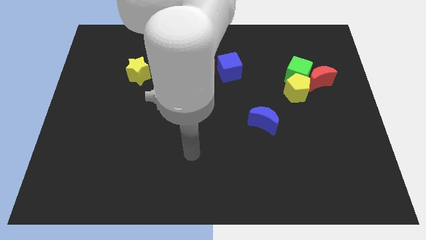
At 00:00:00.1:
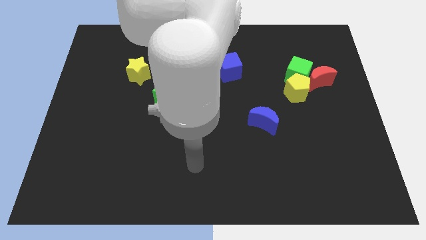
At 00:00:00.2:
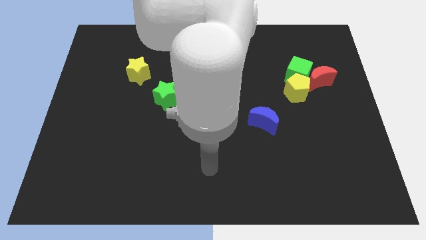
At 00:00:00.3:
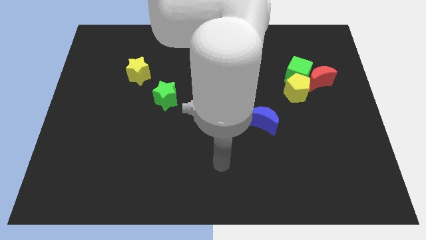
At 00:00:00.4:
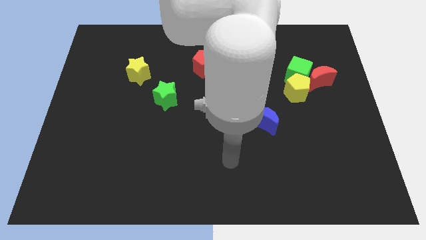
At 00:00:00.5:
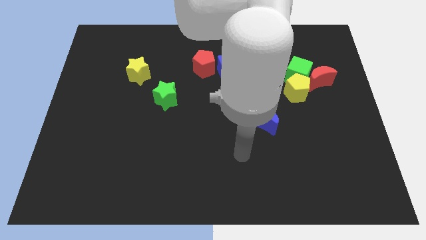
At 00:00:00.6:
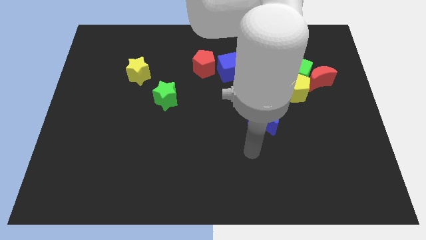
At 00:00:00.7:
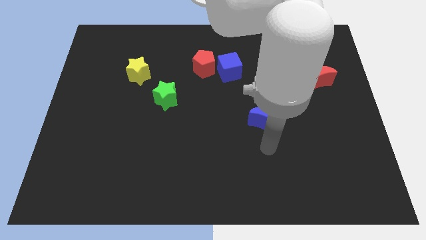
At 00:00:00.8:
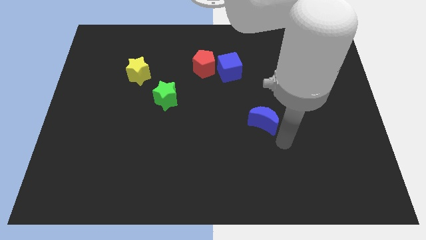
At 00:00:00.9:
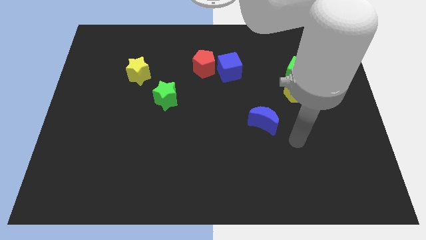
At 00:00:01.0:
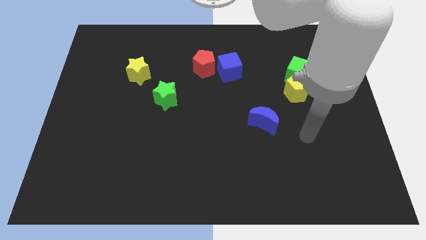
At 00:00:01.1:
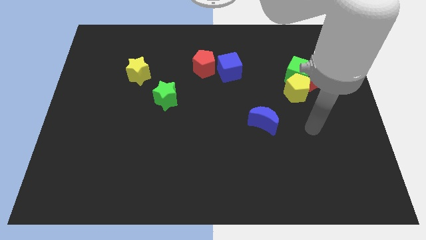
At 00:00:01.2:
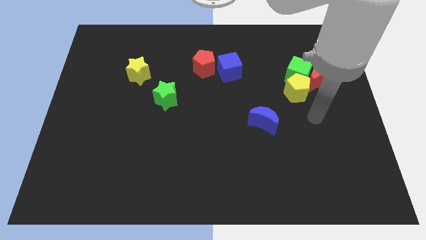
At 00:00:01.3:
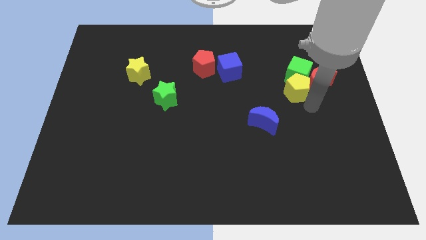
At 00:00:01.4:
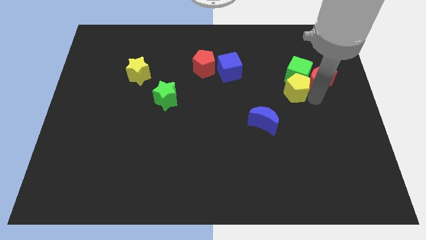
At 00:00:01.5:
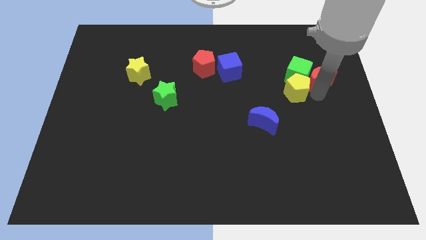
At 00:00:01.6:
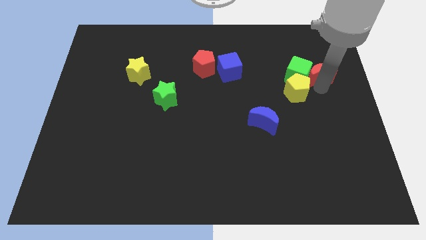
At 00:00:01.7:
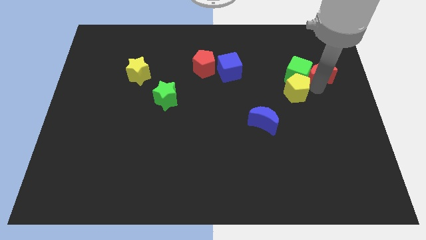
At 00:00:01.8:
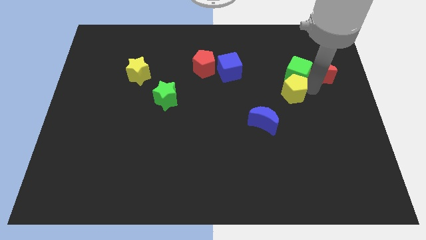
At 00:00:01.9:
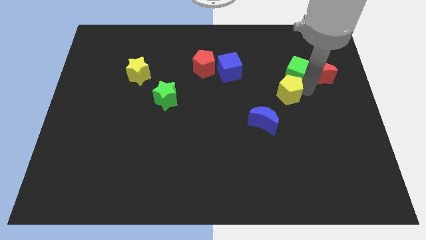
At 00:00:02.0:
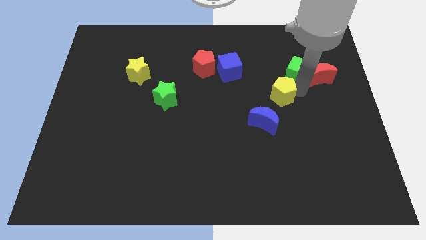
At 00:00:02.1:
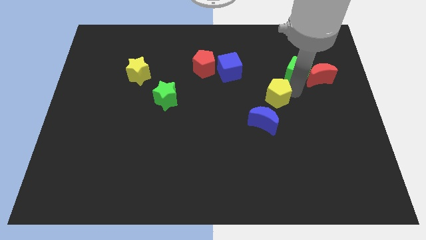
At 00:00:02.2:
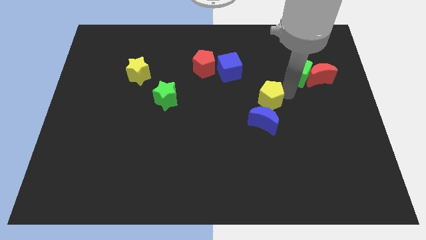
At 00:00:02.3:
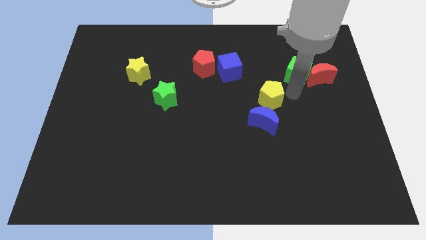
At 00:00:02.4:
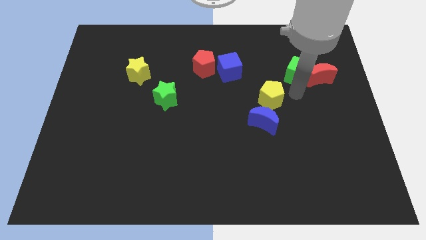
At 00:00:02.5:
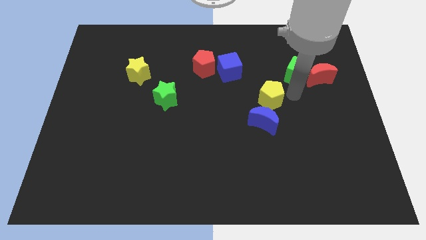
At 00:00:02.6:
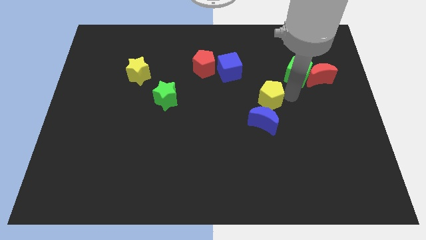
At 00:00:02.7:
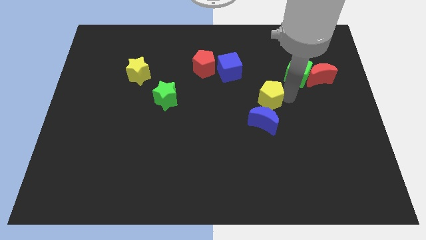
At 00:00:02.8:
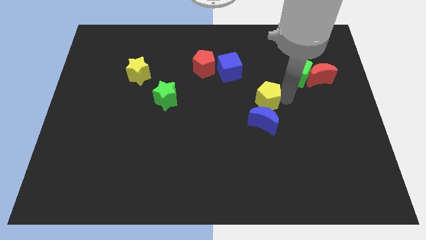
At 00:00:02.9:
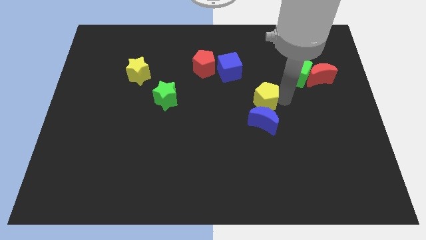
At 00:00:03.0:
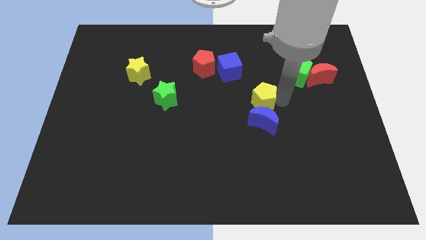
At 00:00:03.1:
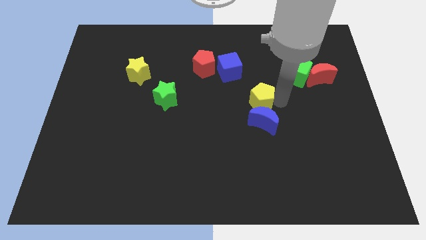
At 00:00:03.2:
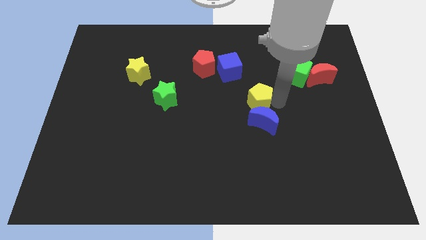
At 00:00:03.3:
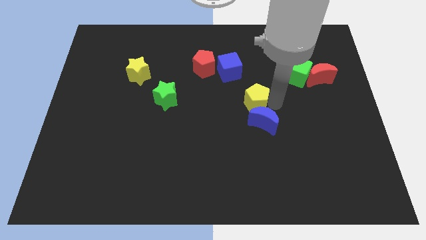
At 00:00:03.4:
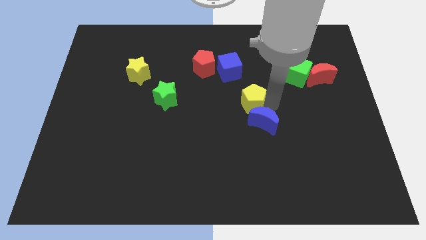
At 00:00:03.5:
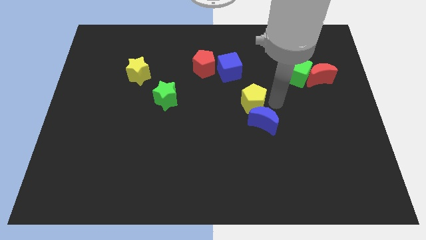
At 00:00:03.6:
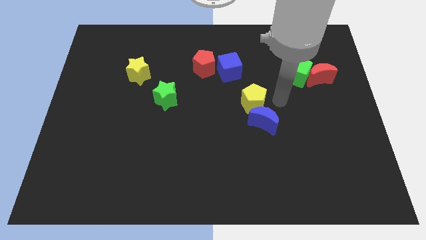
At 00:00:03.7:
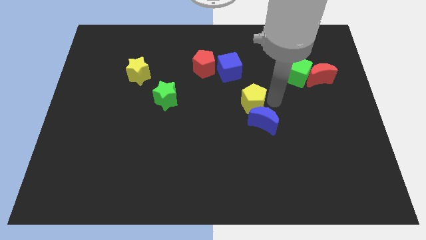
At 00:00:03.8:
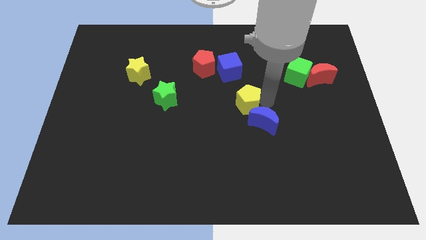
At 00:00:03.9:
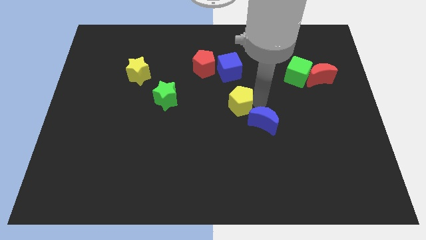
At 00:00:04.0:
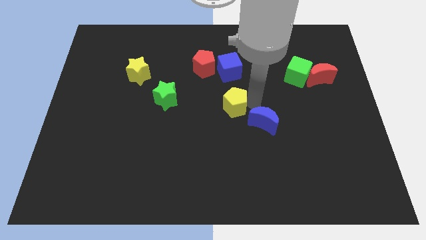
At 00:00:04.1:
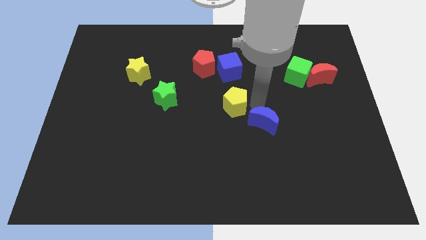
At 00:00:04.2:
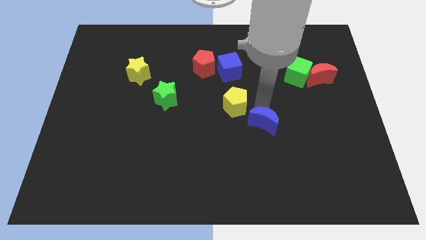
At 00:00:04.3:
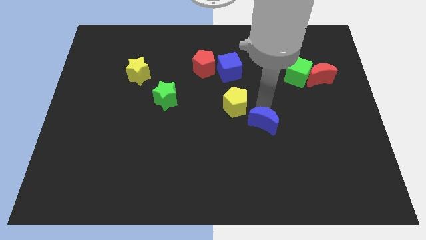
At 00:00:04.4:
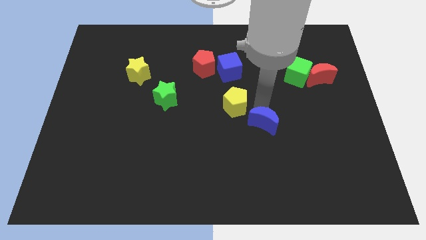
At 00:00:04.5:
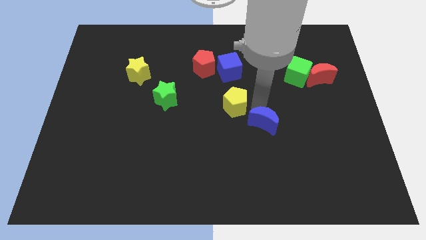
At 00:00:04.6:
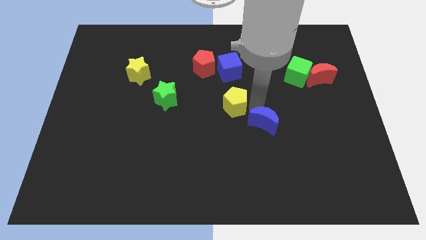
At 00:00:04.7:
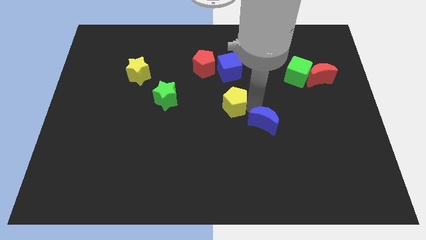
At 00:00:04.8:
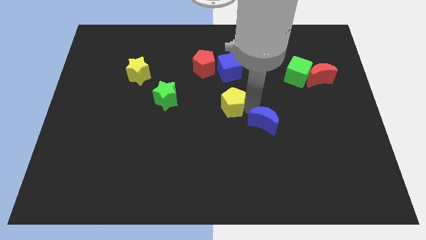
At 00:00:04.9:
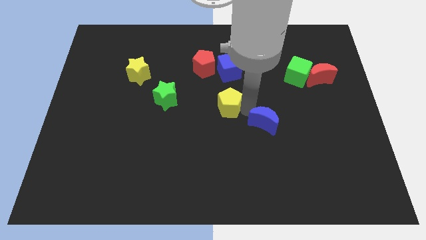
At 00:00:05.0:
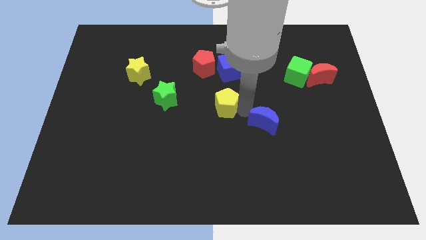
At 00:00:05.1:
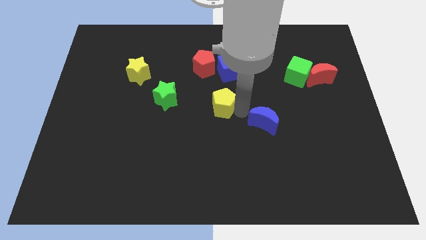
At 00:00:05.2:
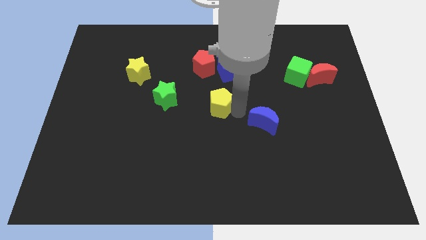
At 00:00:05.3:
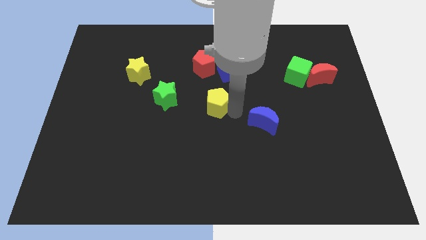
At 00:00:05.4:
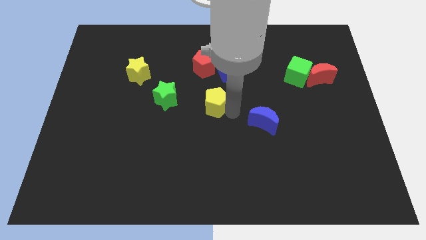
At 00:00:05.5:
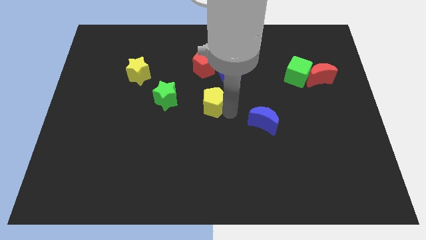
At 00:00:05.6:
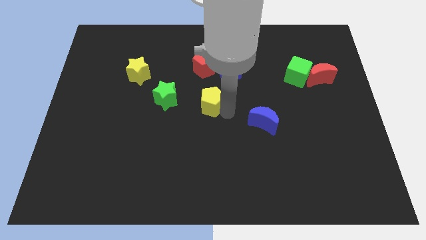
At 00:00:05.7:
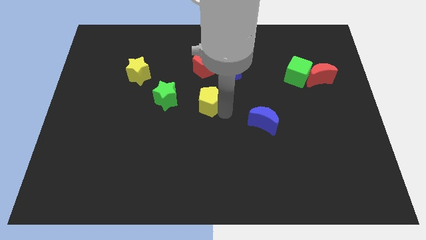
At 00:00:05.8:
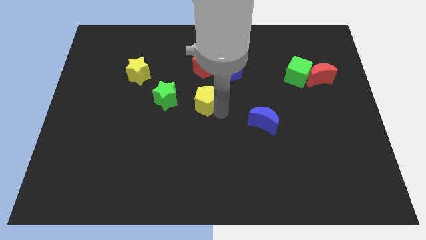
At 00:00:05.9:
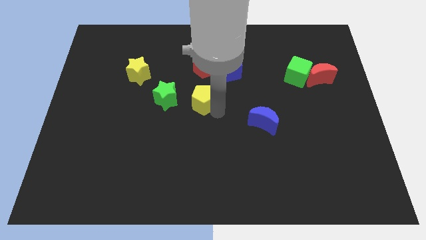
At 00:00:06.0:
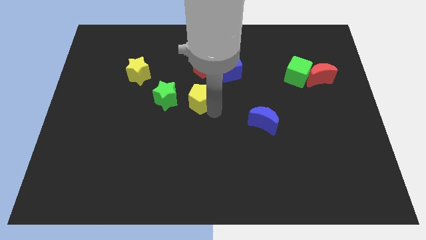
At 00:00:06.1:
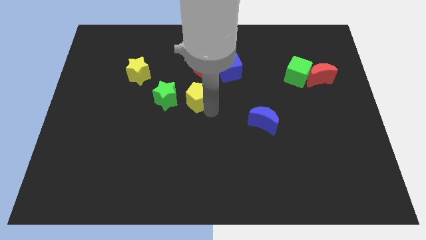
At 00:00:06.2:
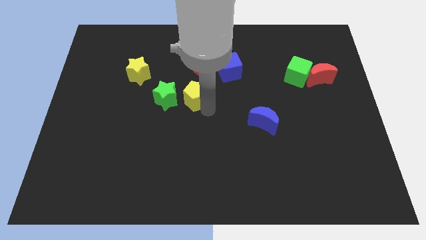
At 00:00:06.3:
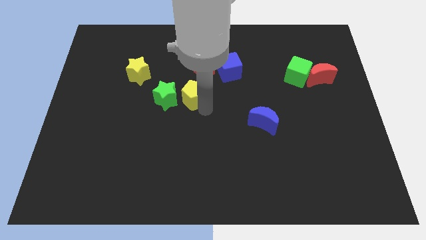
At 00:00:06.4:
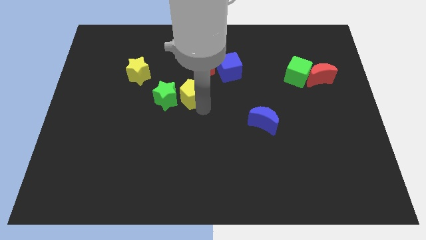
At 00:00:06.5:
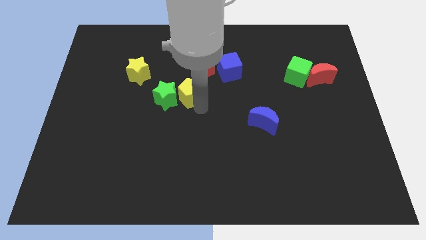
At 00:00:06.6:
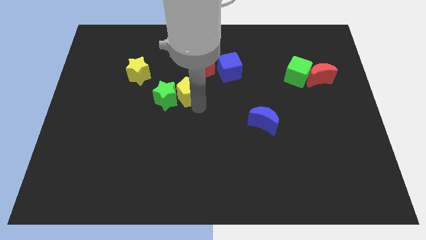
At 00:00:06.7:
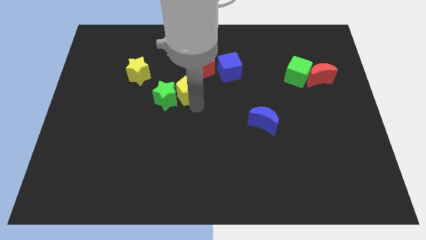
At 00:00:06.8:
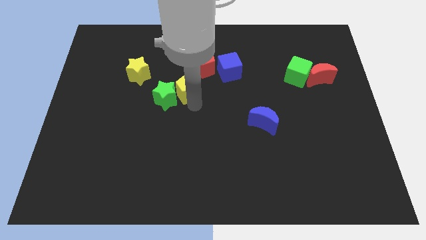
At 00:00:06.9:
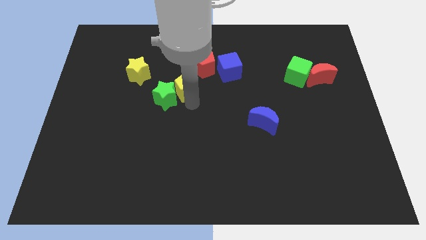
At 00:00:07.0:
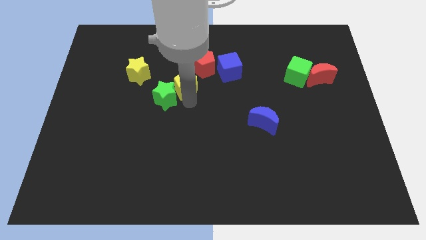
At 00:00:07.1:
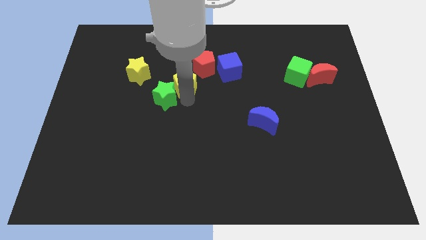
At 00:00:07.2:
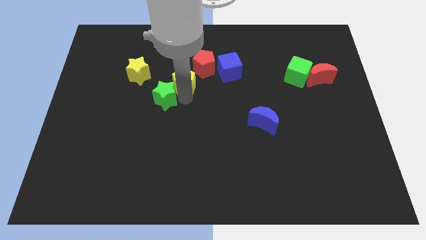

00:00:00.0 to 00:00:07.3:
move the yellow pentagon just left of the blue cube

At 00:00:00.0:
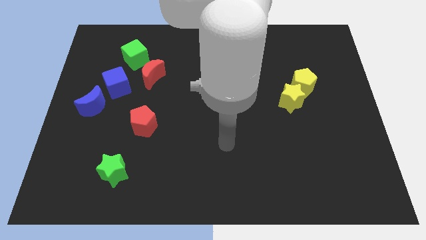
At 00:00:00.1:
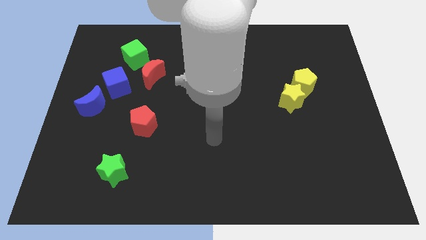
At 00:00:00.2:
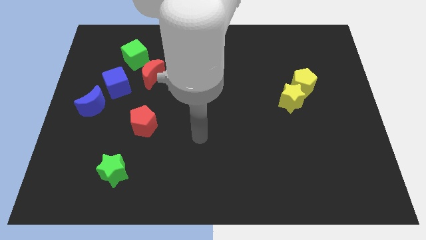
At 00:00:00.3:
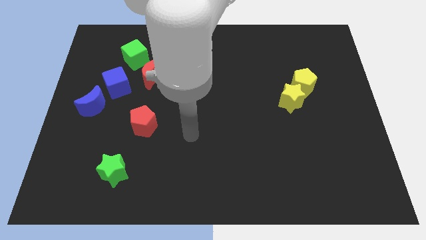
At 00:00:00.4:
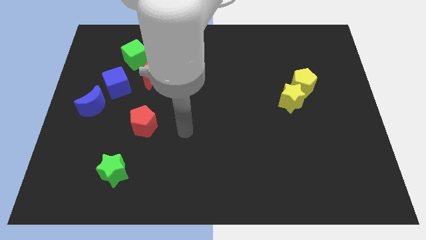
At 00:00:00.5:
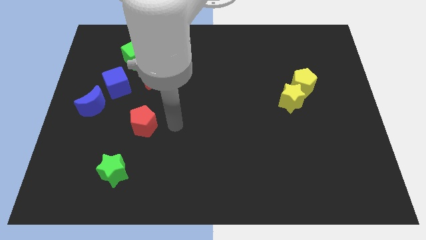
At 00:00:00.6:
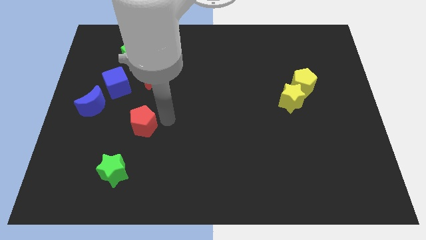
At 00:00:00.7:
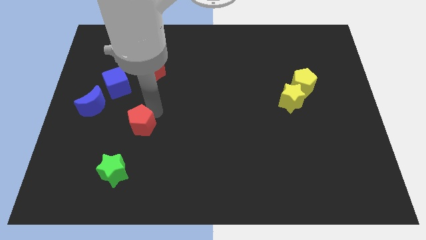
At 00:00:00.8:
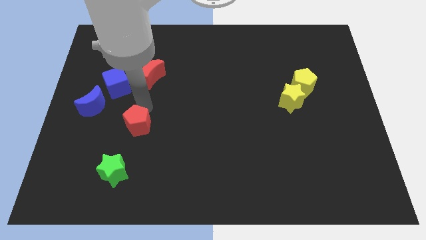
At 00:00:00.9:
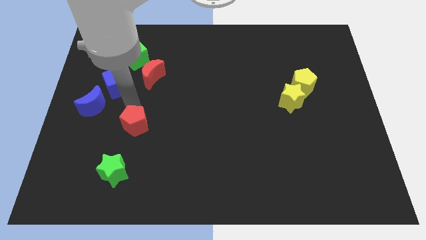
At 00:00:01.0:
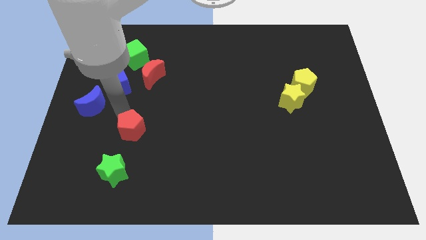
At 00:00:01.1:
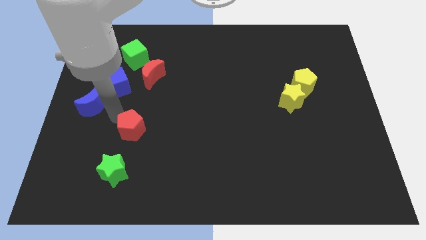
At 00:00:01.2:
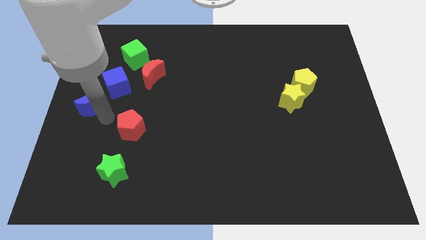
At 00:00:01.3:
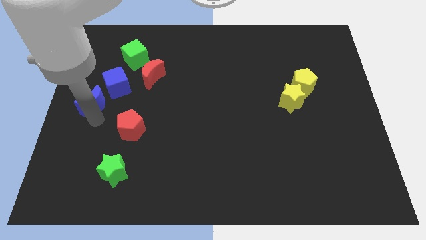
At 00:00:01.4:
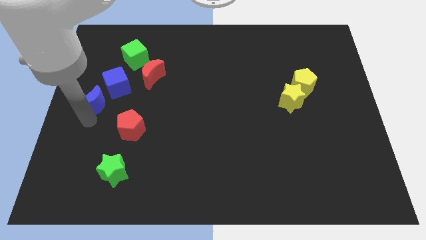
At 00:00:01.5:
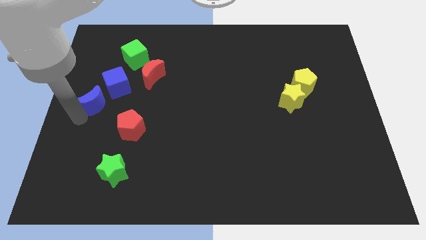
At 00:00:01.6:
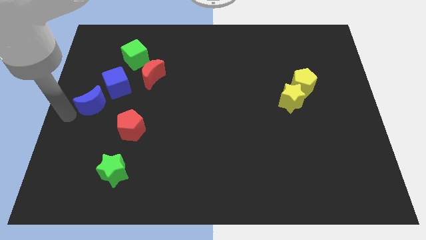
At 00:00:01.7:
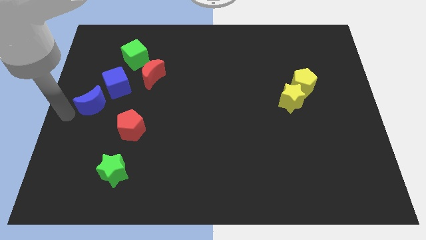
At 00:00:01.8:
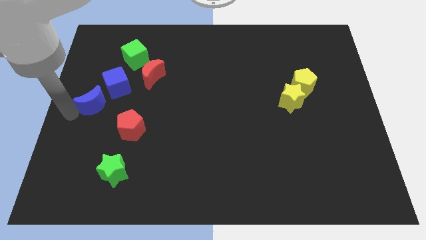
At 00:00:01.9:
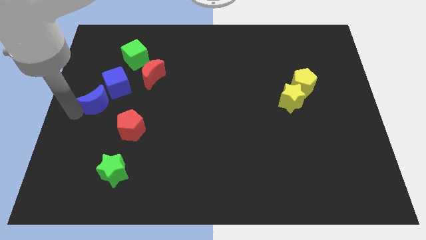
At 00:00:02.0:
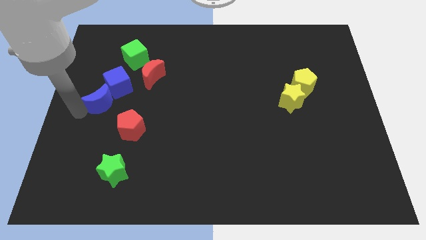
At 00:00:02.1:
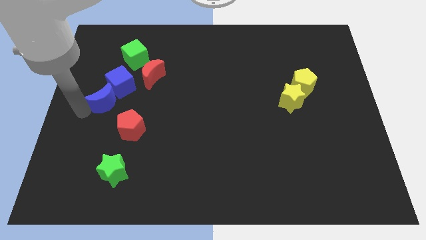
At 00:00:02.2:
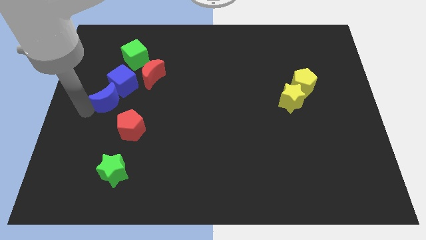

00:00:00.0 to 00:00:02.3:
push the blue moon to the bottom left of the red moon
